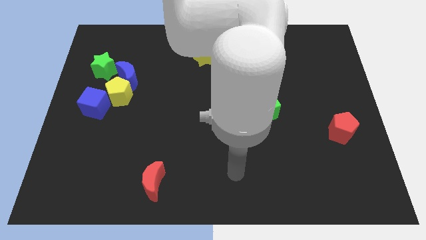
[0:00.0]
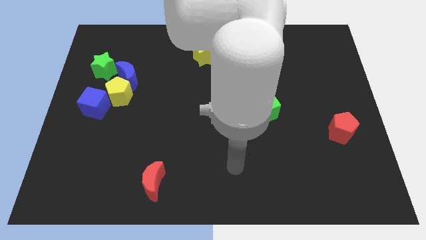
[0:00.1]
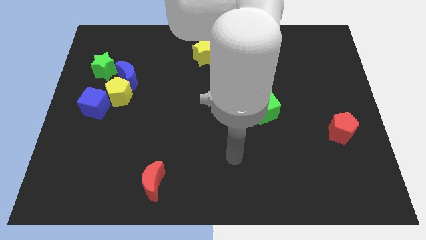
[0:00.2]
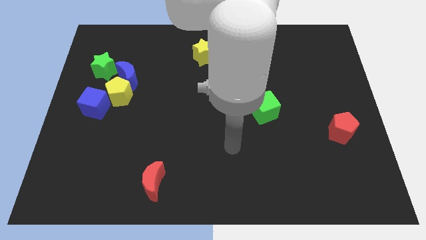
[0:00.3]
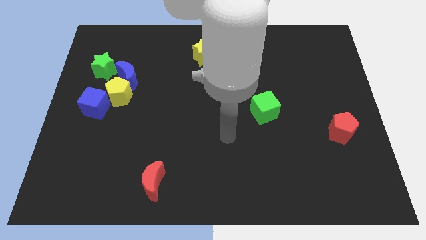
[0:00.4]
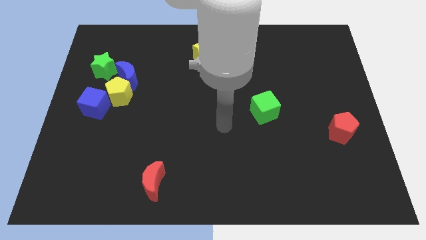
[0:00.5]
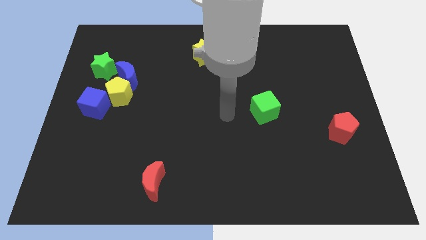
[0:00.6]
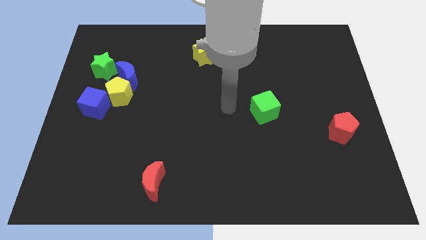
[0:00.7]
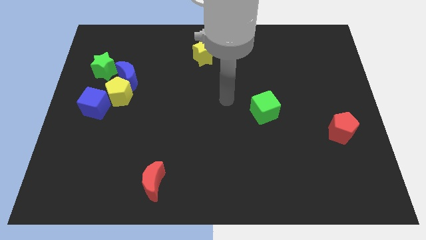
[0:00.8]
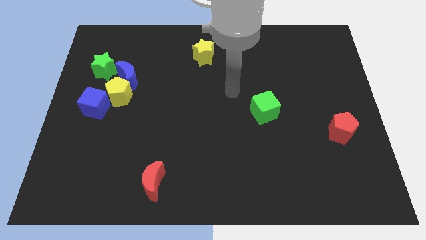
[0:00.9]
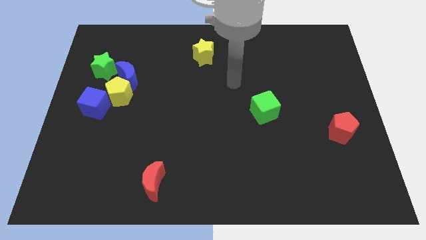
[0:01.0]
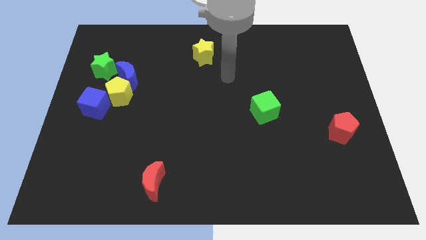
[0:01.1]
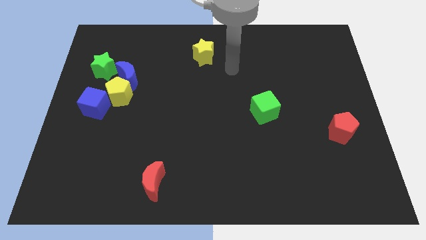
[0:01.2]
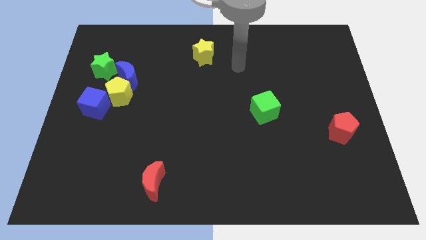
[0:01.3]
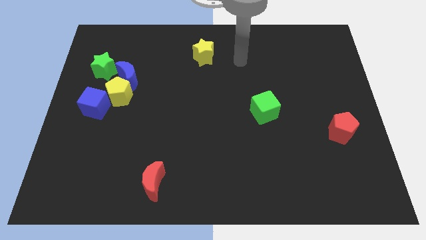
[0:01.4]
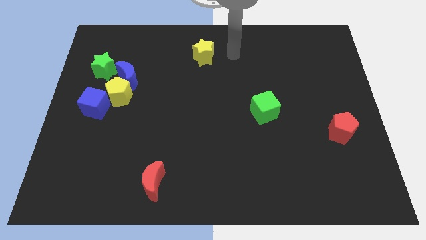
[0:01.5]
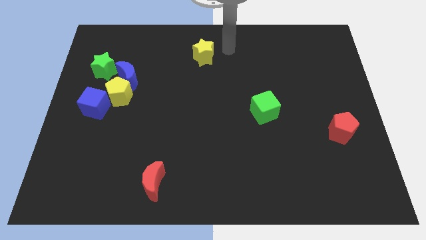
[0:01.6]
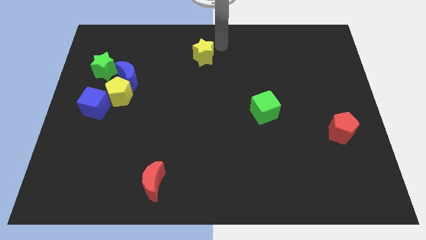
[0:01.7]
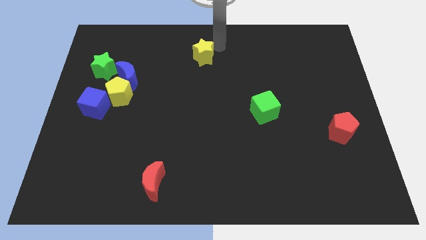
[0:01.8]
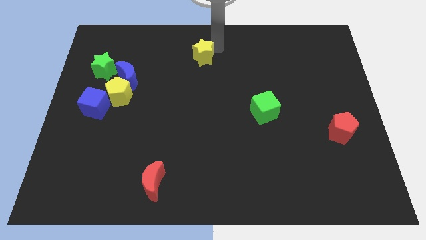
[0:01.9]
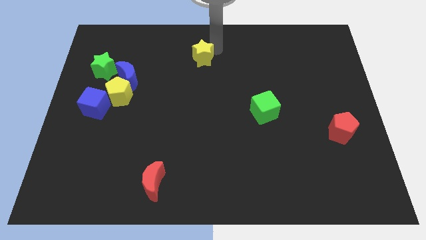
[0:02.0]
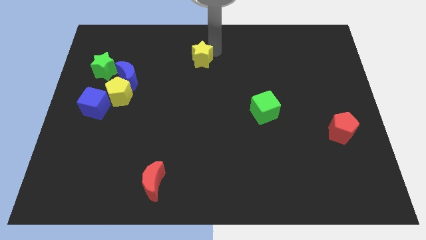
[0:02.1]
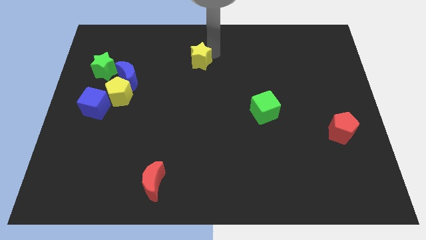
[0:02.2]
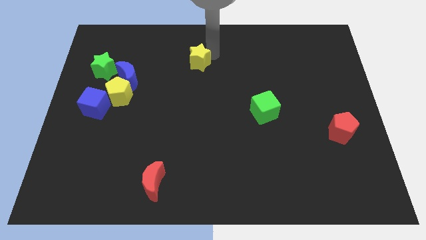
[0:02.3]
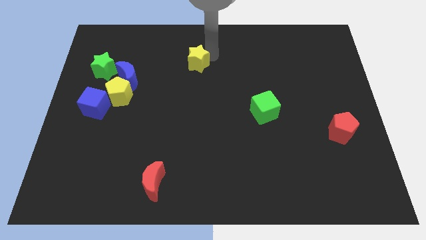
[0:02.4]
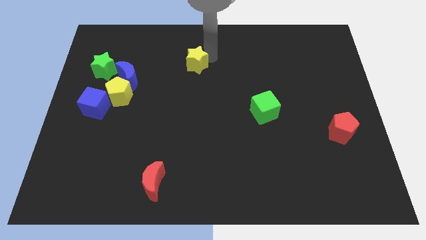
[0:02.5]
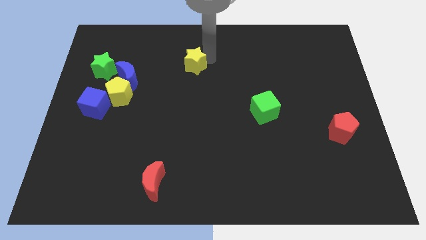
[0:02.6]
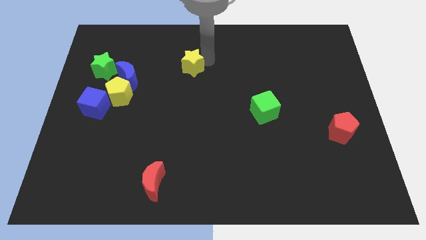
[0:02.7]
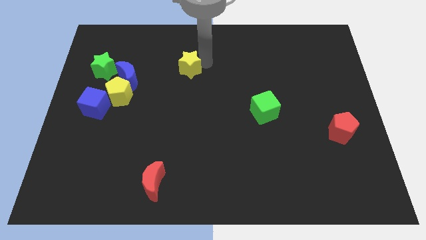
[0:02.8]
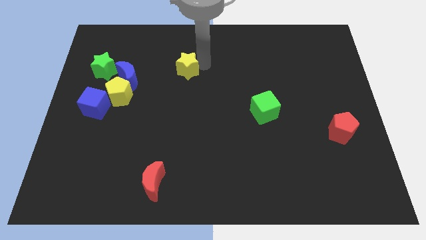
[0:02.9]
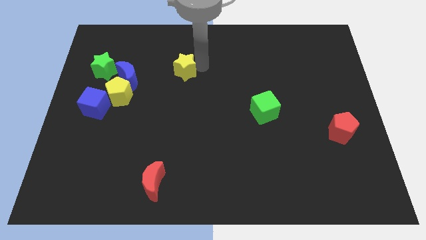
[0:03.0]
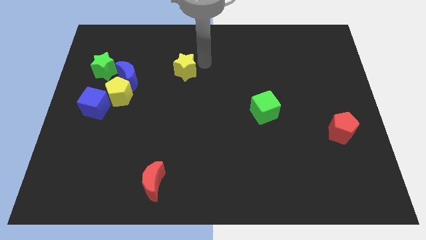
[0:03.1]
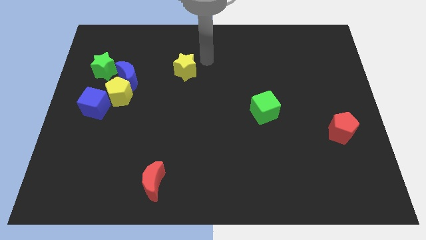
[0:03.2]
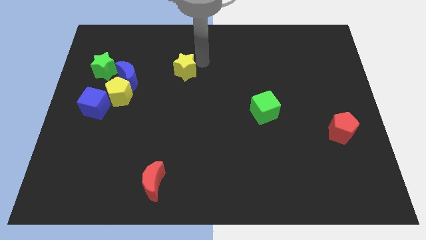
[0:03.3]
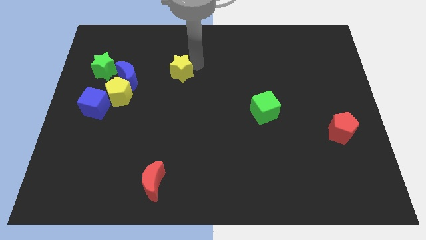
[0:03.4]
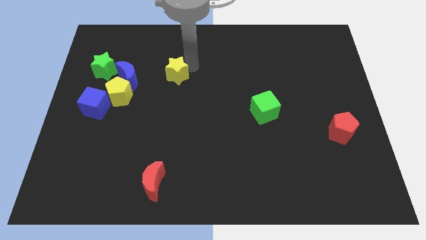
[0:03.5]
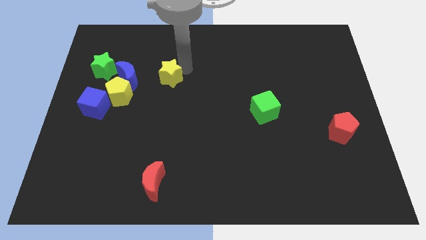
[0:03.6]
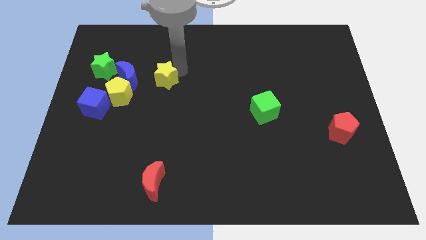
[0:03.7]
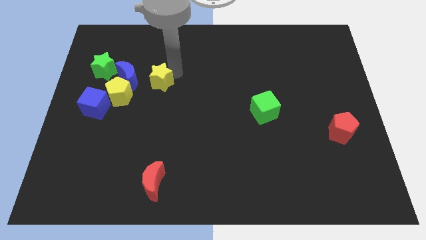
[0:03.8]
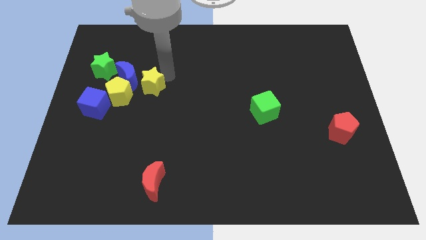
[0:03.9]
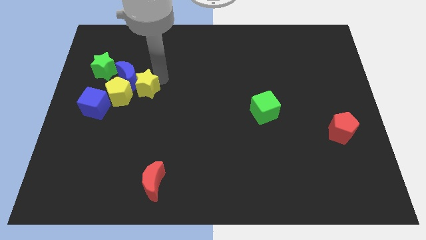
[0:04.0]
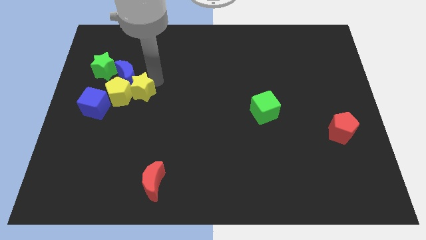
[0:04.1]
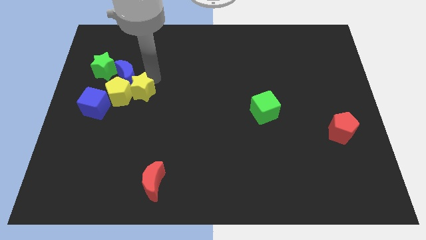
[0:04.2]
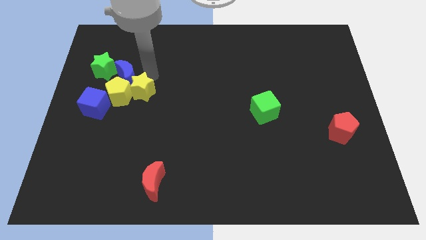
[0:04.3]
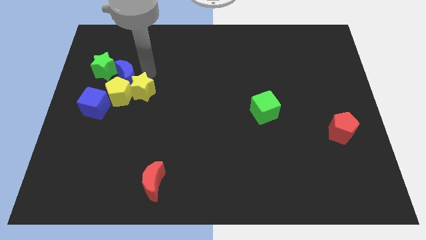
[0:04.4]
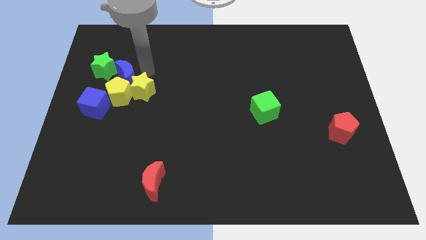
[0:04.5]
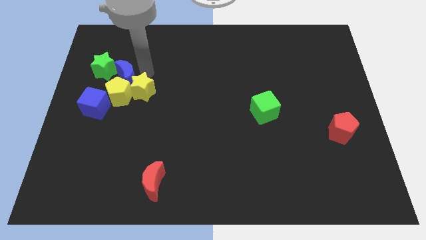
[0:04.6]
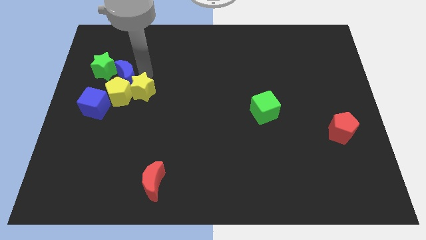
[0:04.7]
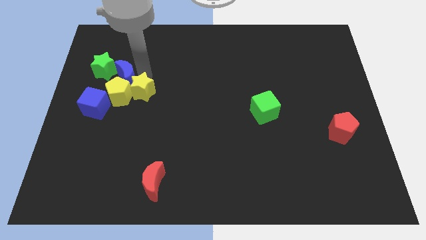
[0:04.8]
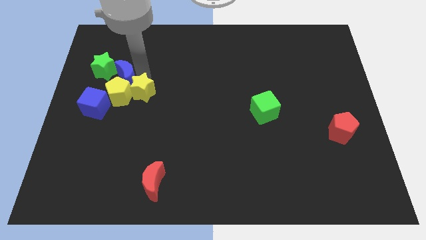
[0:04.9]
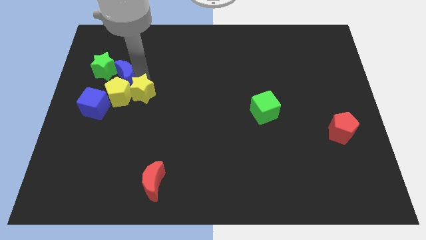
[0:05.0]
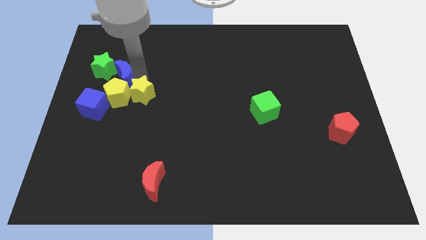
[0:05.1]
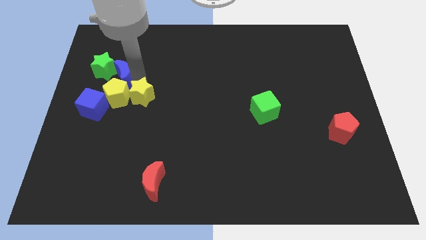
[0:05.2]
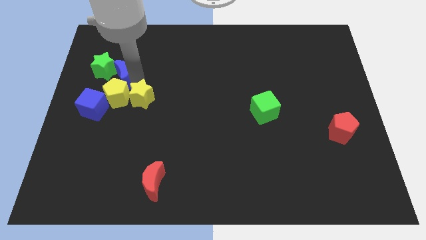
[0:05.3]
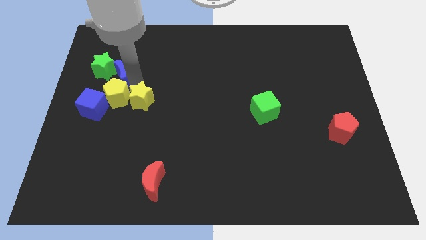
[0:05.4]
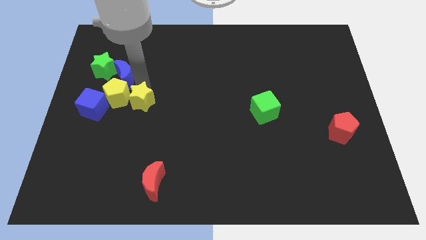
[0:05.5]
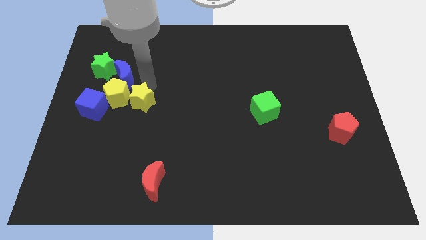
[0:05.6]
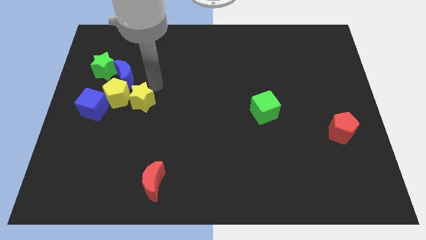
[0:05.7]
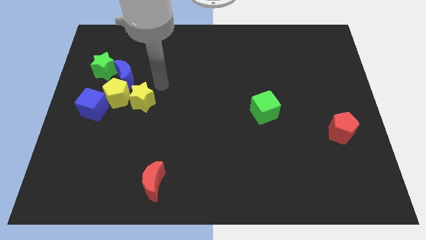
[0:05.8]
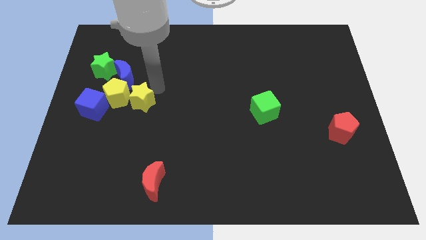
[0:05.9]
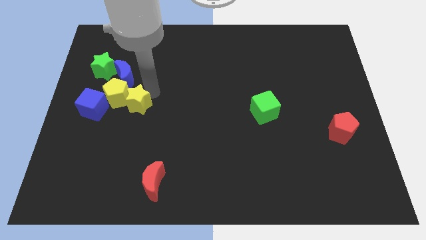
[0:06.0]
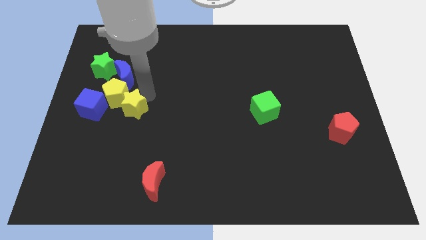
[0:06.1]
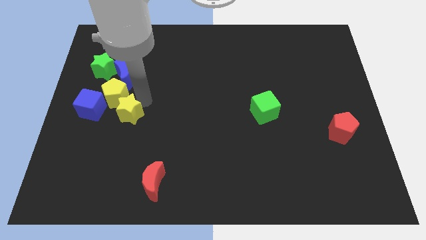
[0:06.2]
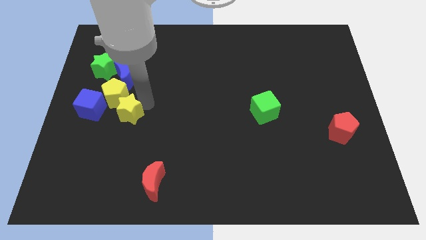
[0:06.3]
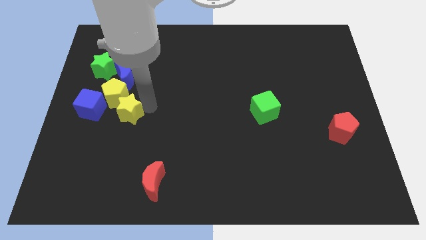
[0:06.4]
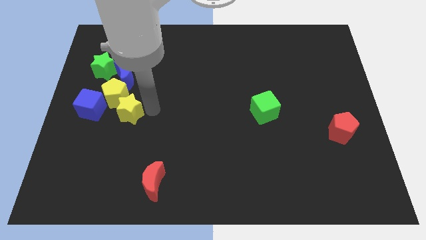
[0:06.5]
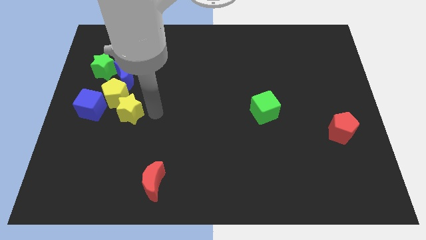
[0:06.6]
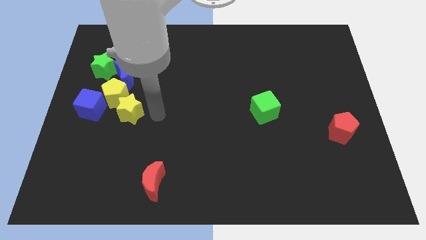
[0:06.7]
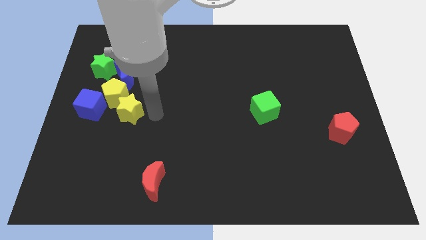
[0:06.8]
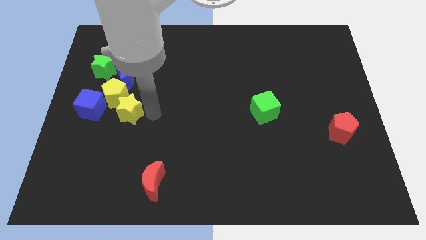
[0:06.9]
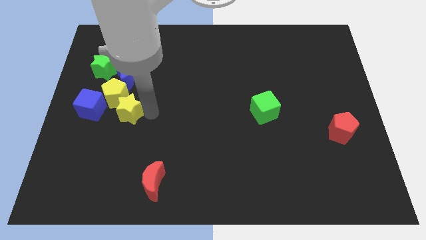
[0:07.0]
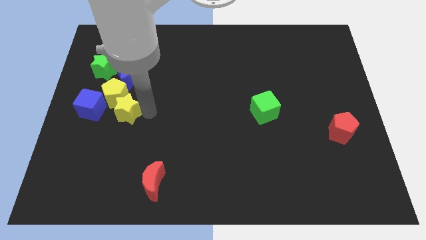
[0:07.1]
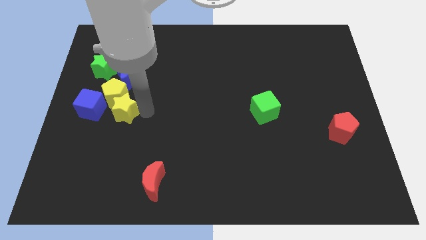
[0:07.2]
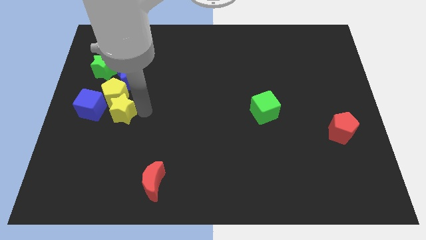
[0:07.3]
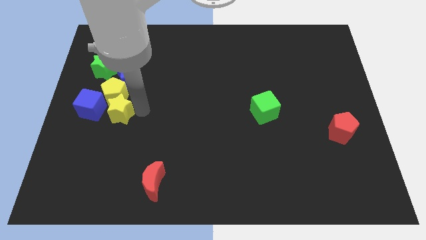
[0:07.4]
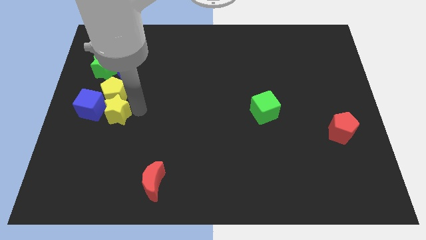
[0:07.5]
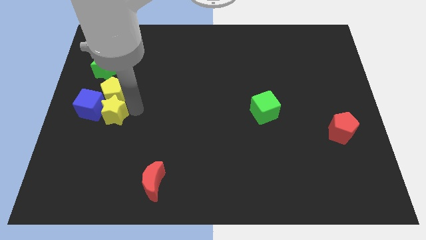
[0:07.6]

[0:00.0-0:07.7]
push the yellow star next to the blue cube
